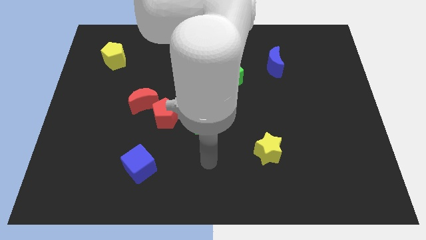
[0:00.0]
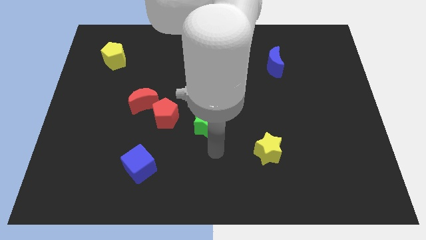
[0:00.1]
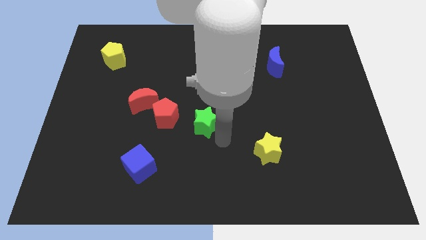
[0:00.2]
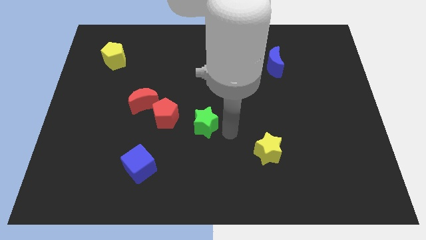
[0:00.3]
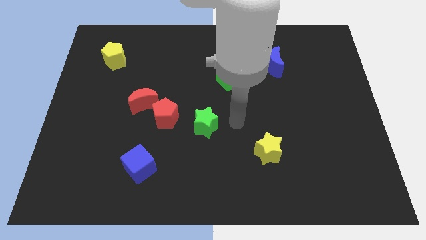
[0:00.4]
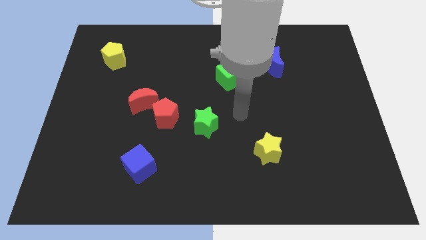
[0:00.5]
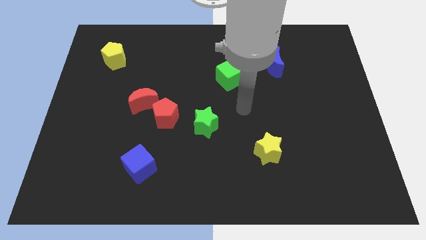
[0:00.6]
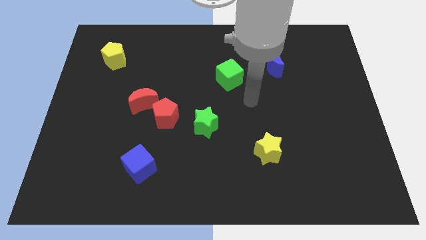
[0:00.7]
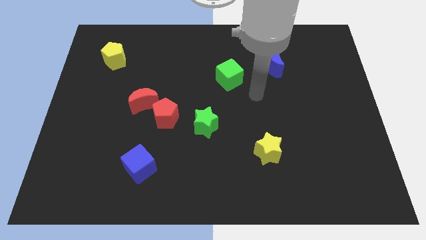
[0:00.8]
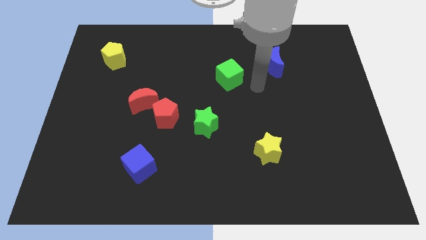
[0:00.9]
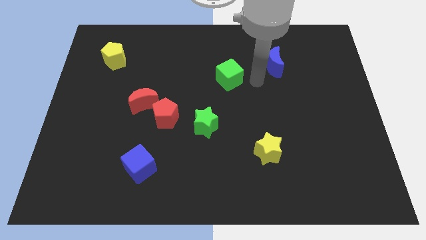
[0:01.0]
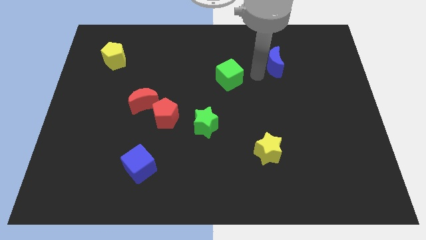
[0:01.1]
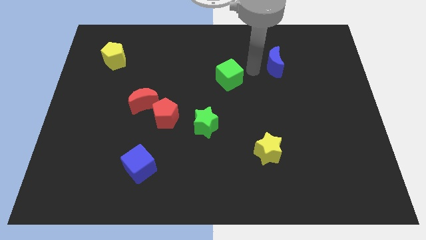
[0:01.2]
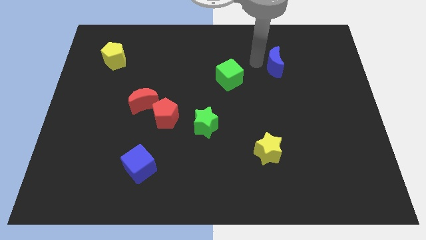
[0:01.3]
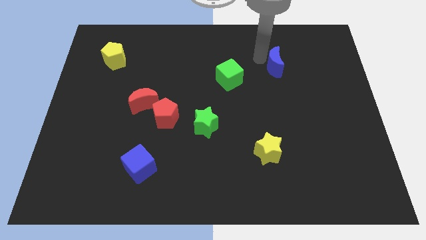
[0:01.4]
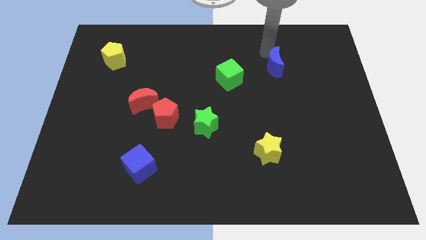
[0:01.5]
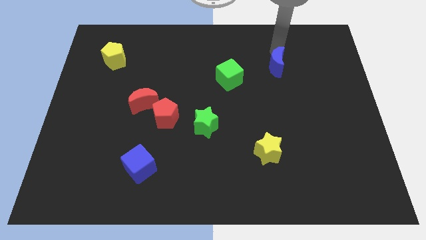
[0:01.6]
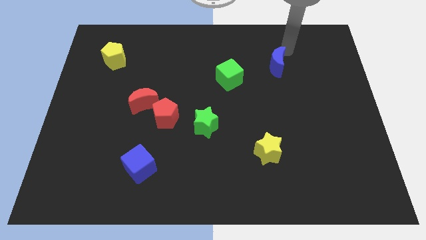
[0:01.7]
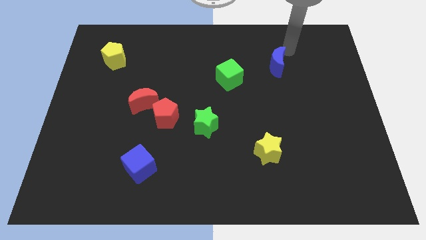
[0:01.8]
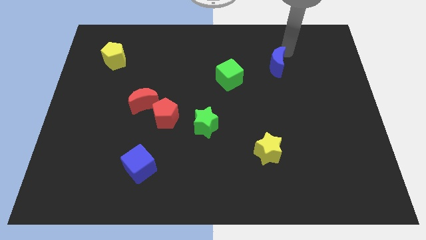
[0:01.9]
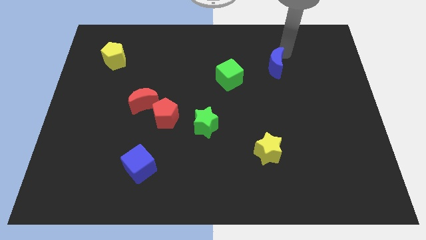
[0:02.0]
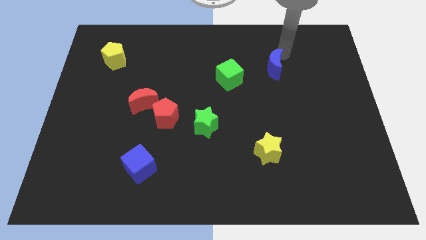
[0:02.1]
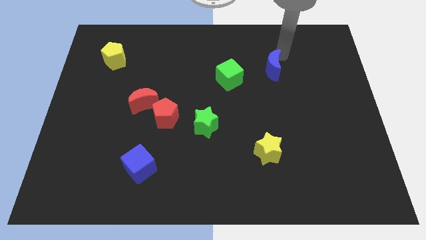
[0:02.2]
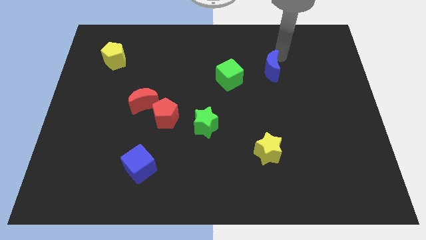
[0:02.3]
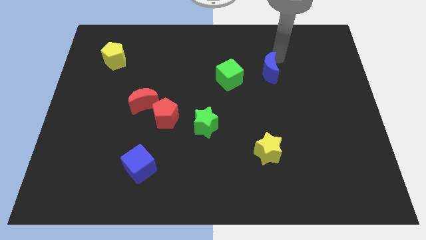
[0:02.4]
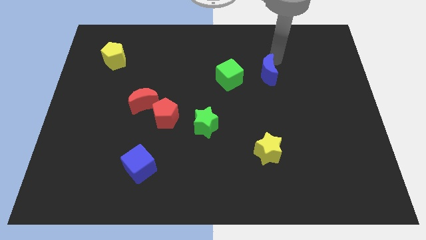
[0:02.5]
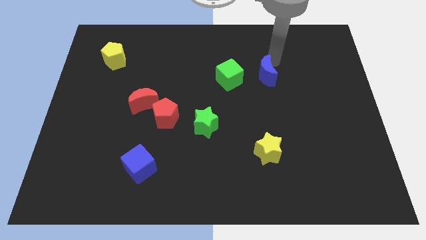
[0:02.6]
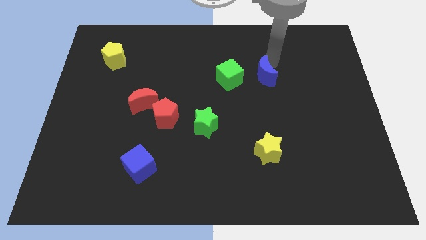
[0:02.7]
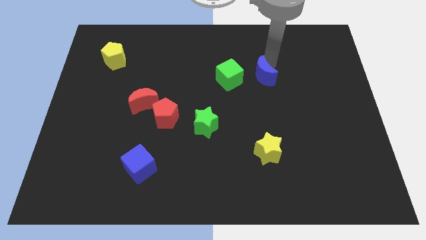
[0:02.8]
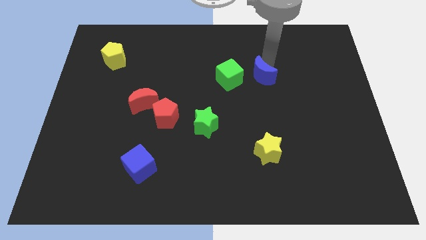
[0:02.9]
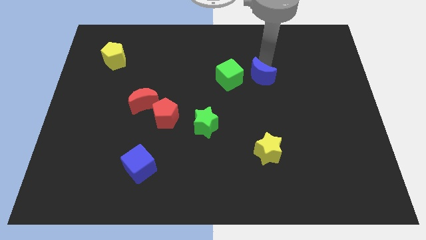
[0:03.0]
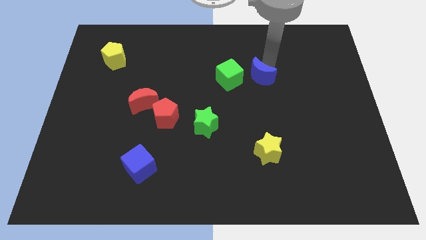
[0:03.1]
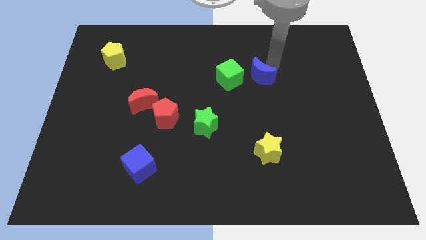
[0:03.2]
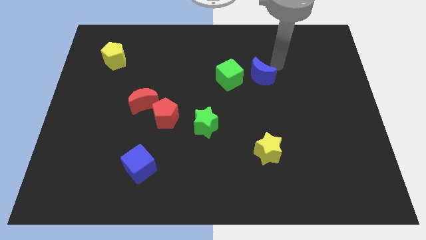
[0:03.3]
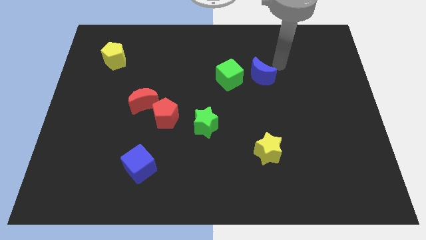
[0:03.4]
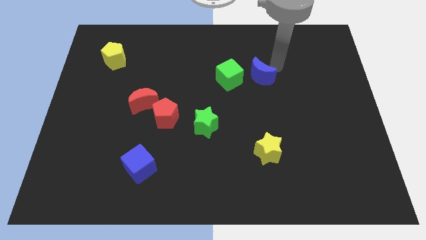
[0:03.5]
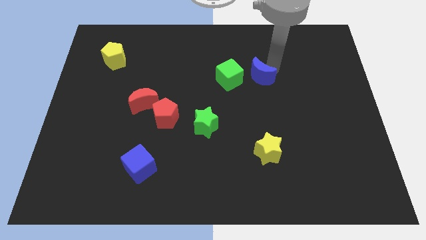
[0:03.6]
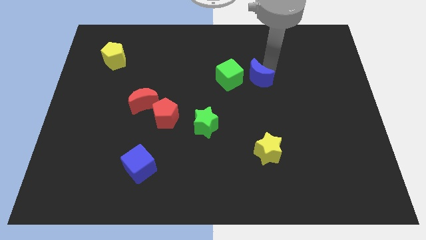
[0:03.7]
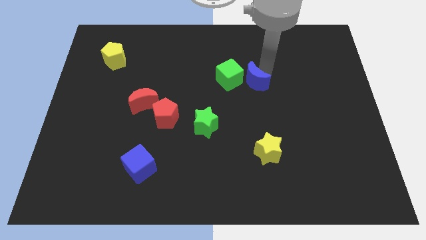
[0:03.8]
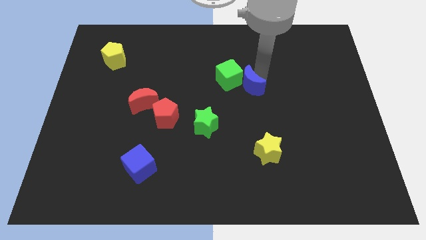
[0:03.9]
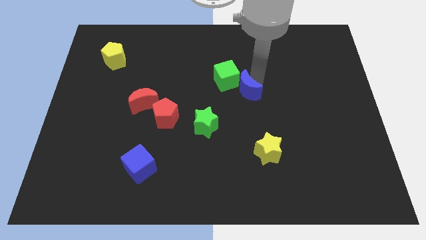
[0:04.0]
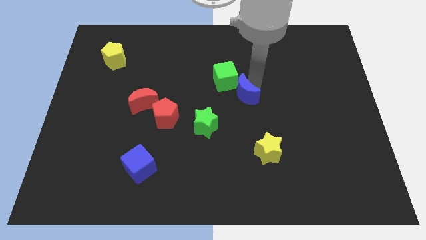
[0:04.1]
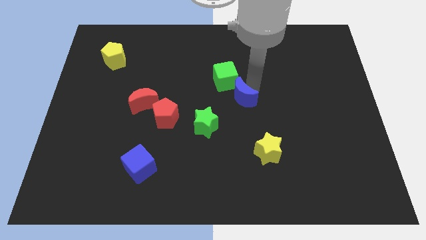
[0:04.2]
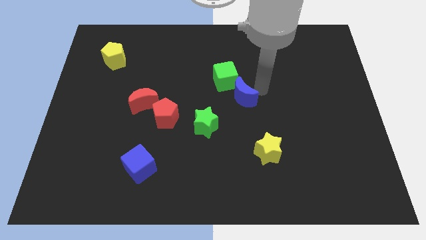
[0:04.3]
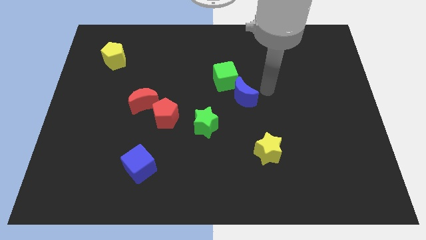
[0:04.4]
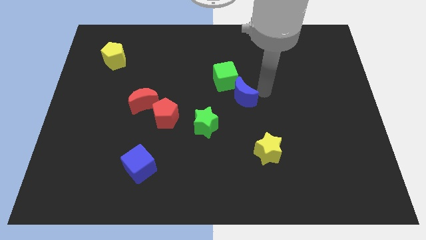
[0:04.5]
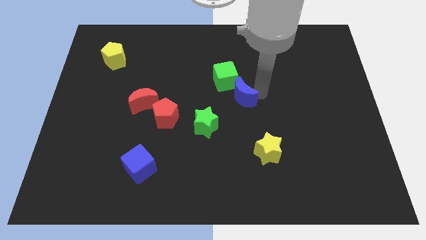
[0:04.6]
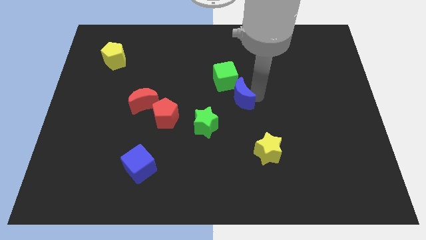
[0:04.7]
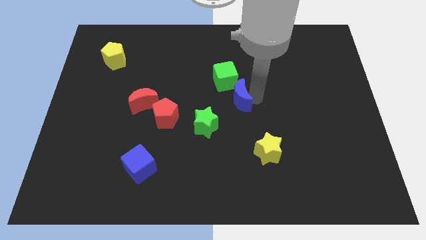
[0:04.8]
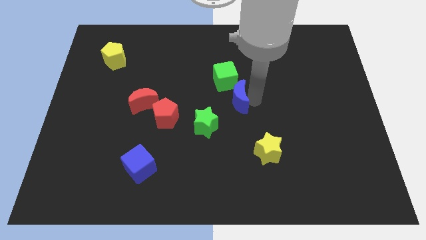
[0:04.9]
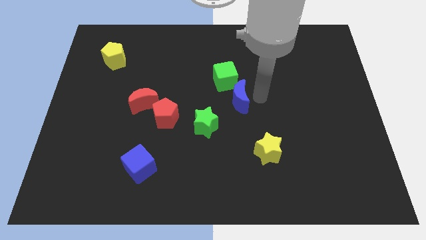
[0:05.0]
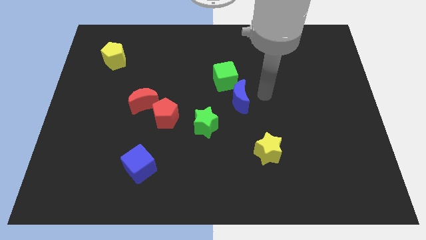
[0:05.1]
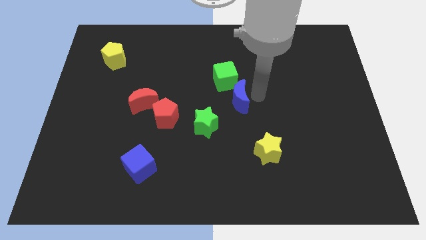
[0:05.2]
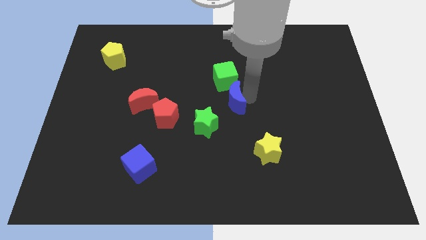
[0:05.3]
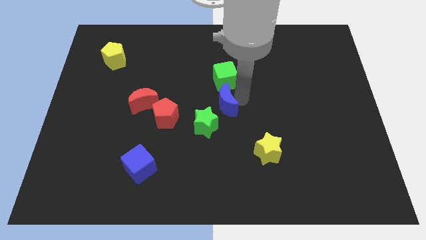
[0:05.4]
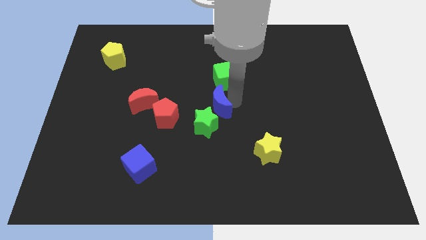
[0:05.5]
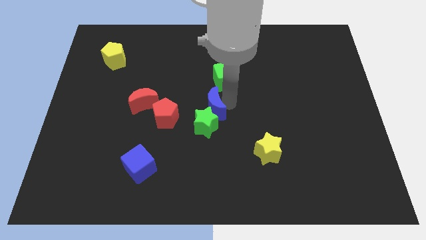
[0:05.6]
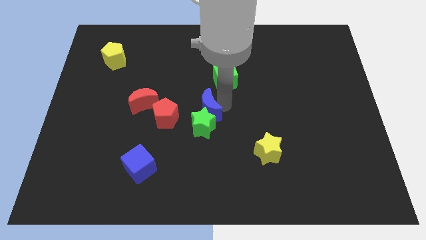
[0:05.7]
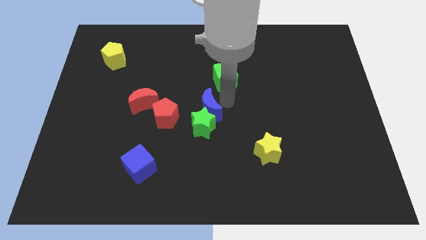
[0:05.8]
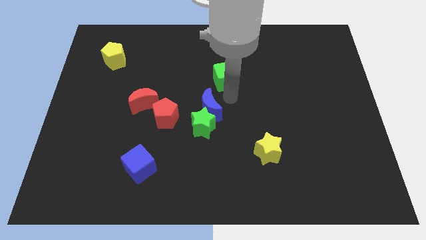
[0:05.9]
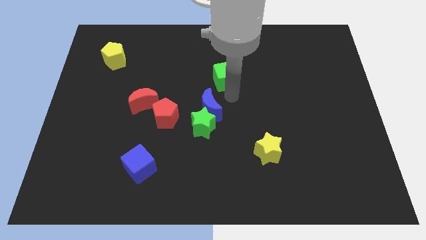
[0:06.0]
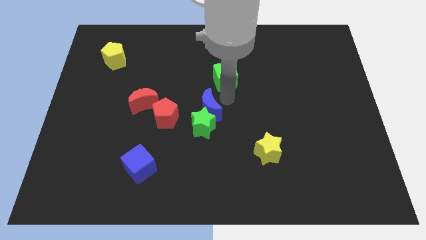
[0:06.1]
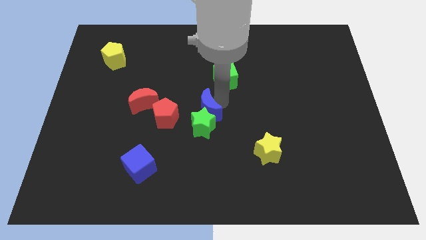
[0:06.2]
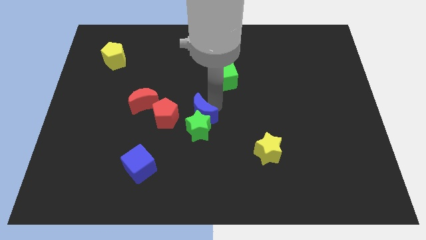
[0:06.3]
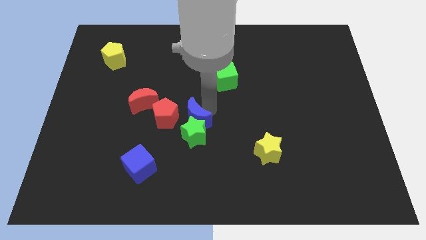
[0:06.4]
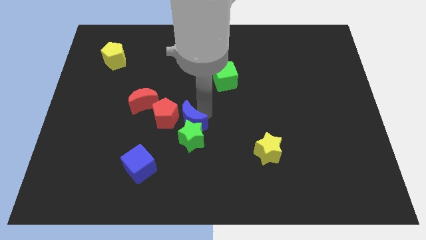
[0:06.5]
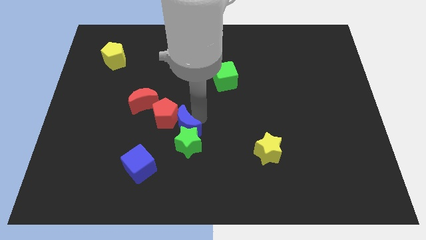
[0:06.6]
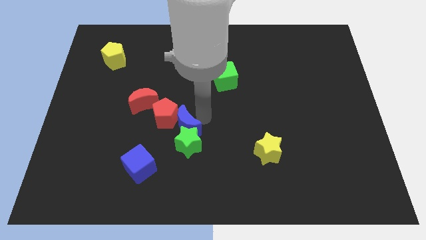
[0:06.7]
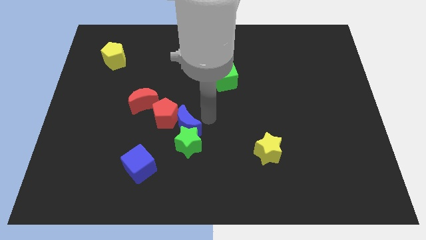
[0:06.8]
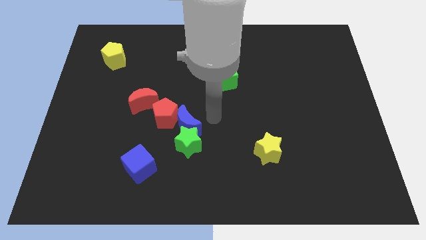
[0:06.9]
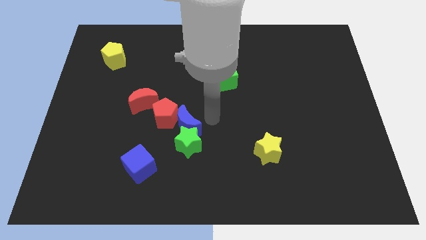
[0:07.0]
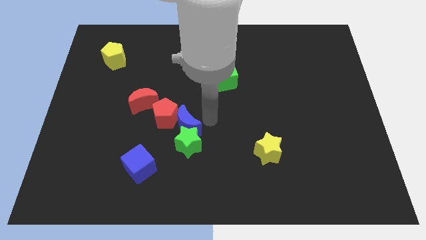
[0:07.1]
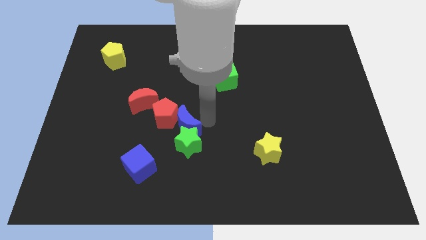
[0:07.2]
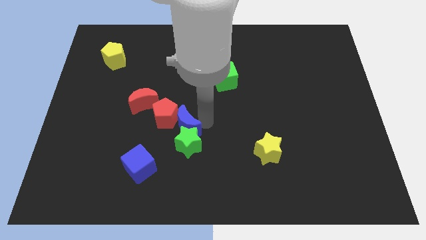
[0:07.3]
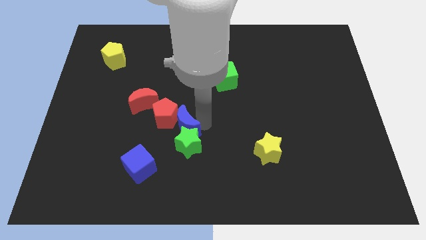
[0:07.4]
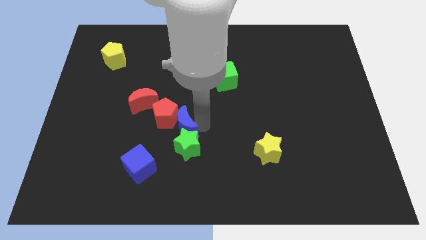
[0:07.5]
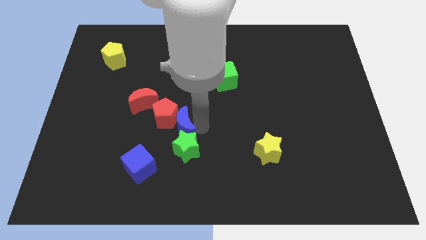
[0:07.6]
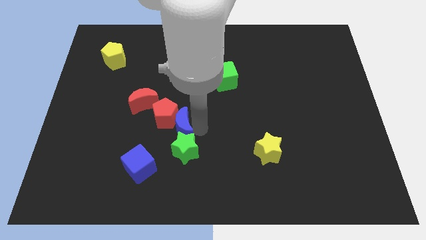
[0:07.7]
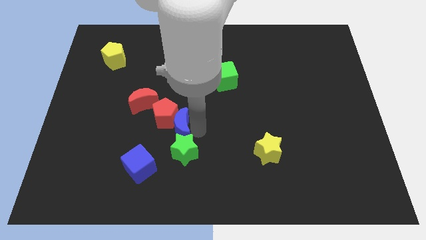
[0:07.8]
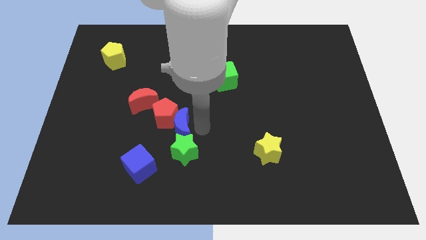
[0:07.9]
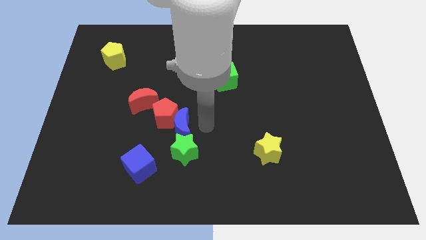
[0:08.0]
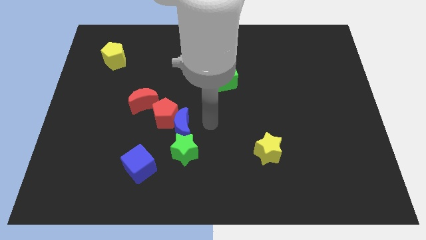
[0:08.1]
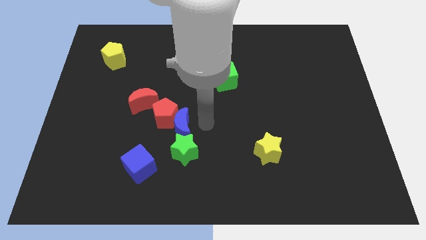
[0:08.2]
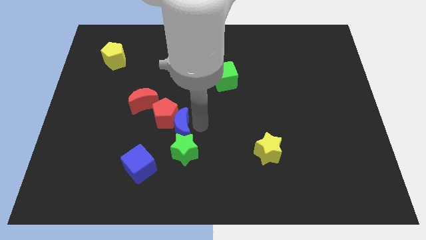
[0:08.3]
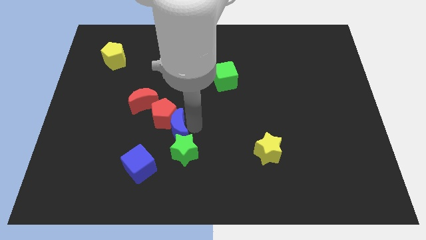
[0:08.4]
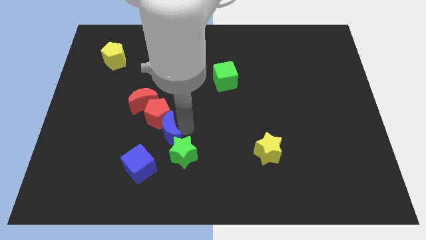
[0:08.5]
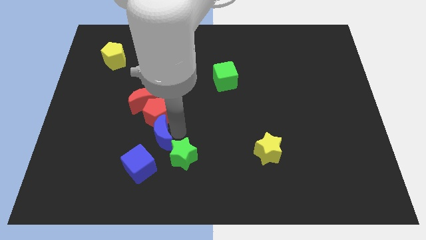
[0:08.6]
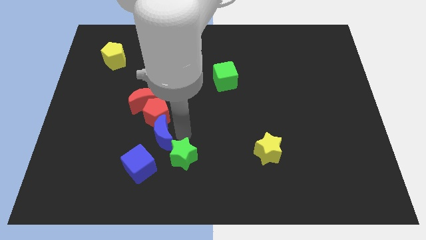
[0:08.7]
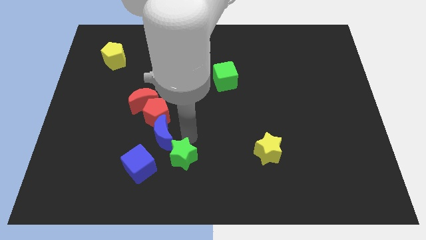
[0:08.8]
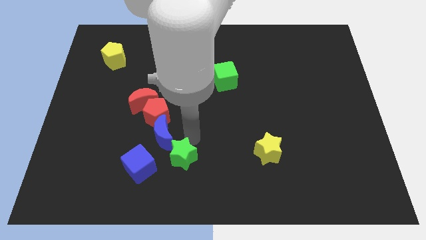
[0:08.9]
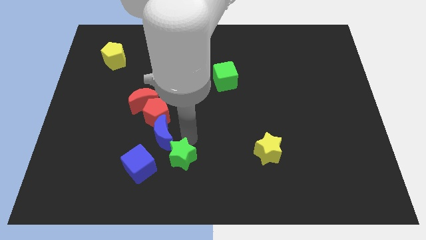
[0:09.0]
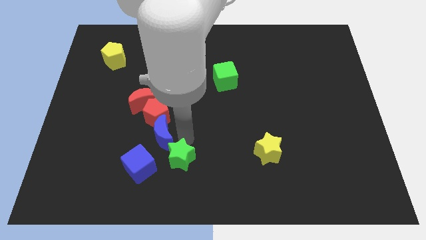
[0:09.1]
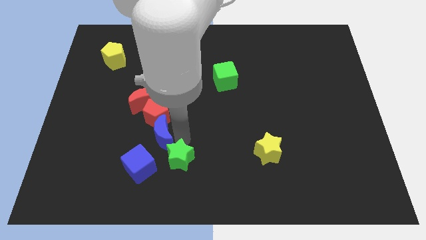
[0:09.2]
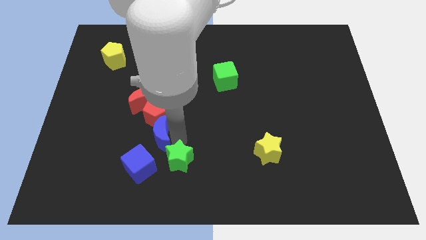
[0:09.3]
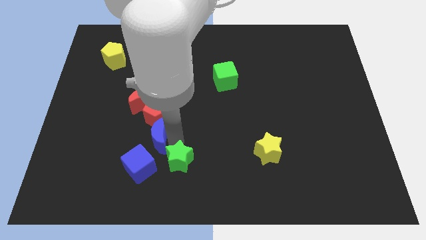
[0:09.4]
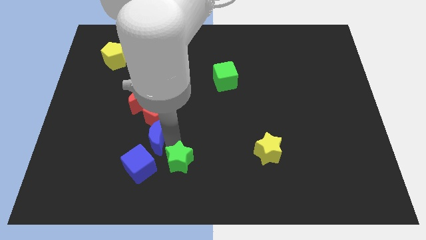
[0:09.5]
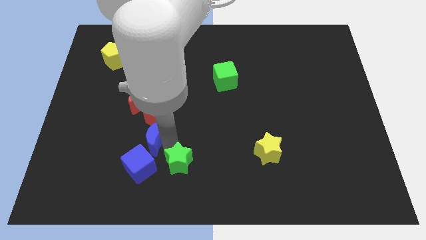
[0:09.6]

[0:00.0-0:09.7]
move the blue moon to the bottom left of the red pentagon
